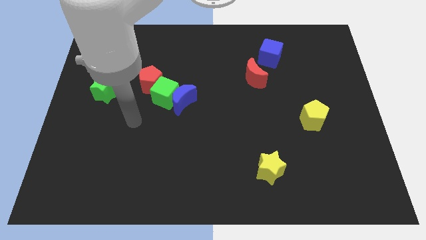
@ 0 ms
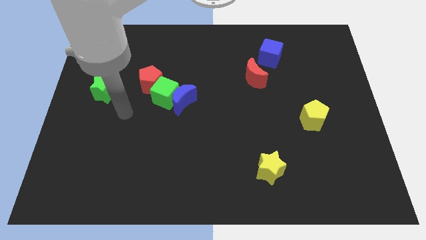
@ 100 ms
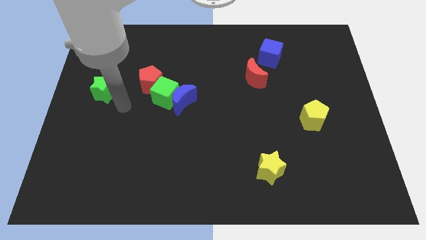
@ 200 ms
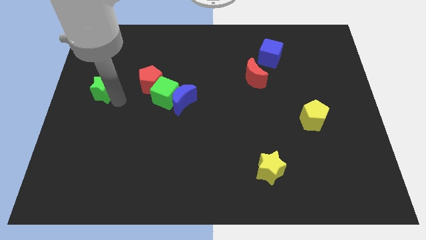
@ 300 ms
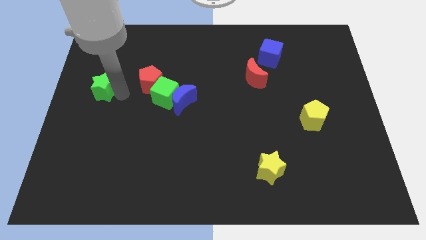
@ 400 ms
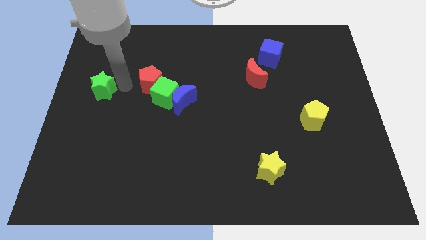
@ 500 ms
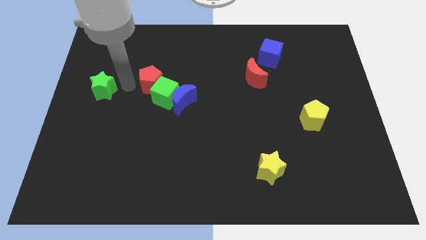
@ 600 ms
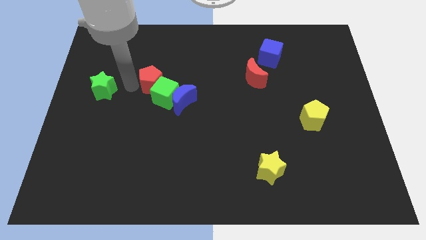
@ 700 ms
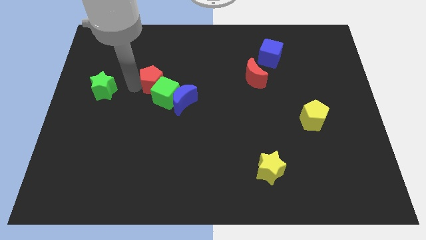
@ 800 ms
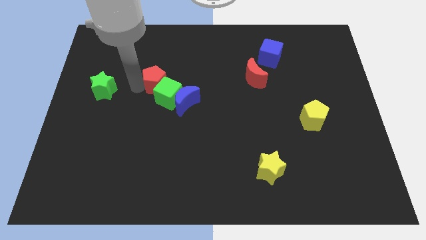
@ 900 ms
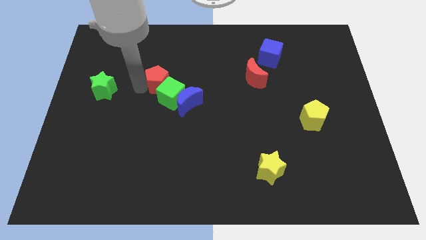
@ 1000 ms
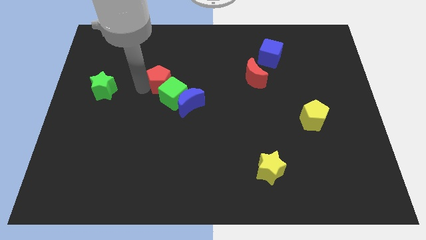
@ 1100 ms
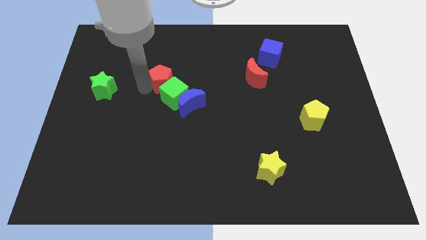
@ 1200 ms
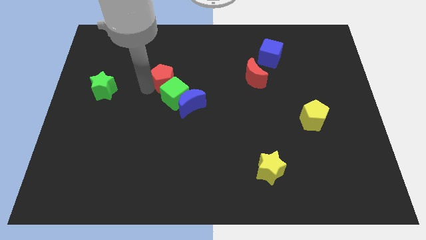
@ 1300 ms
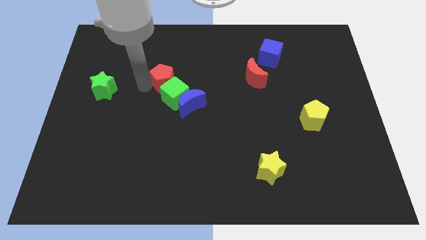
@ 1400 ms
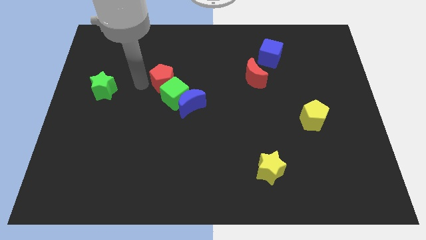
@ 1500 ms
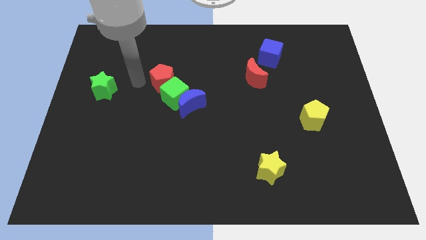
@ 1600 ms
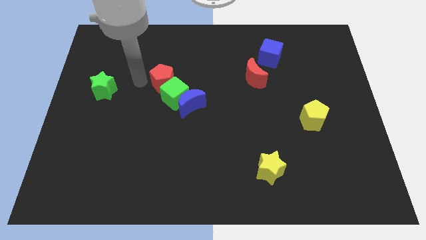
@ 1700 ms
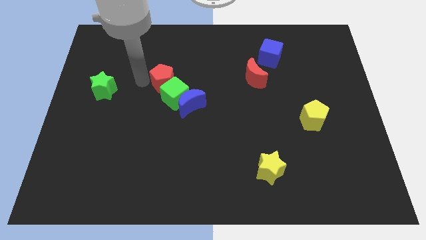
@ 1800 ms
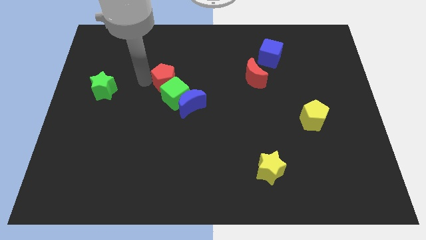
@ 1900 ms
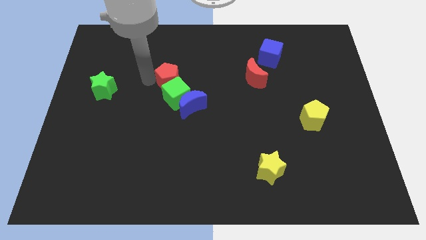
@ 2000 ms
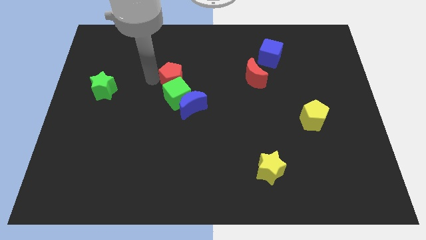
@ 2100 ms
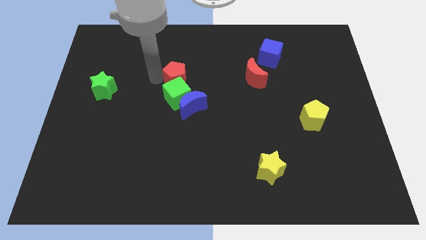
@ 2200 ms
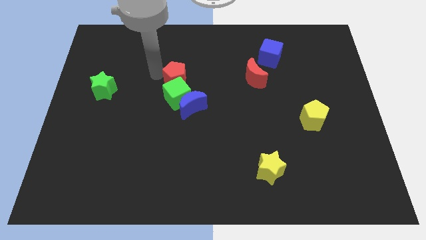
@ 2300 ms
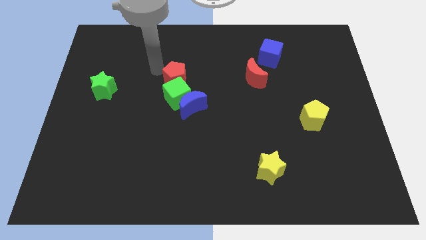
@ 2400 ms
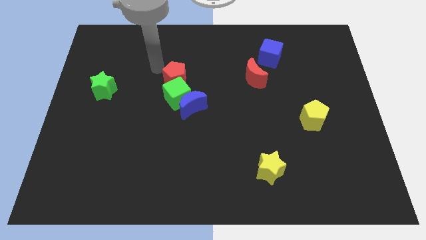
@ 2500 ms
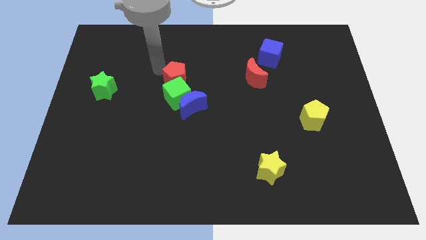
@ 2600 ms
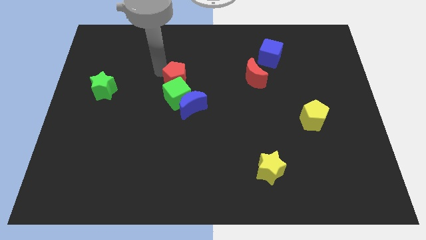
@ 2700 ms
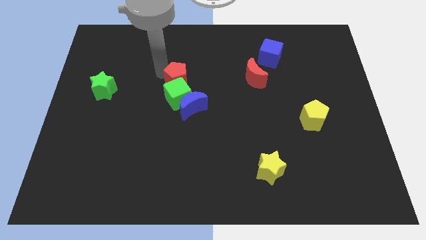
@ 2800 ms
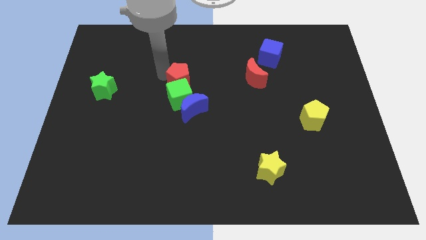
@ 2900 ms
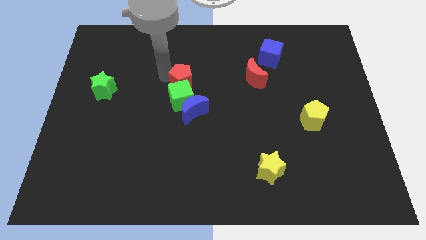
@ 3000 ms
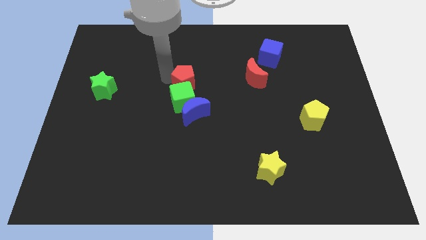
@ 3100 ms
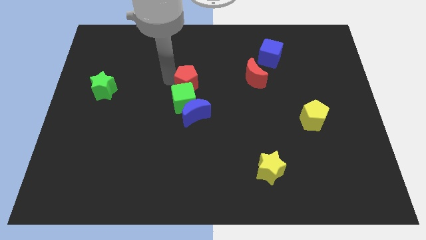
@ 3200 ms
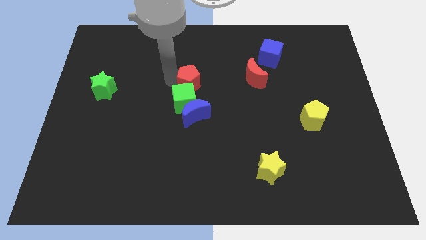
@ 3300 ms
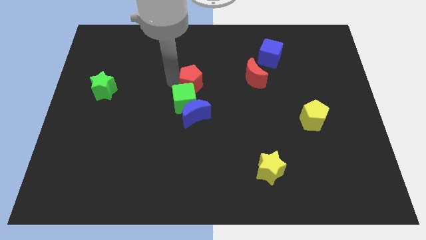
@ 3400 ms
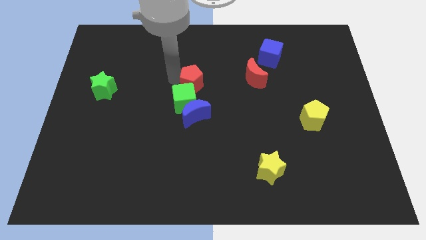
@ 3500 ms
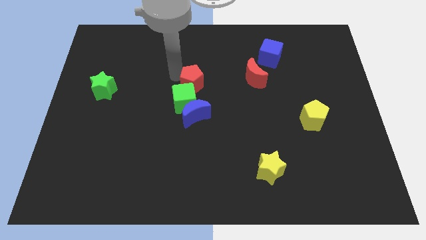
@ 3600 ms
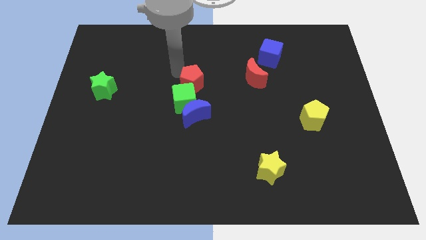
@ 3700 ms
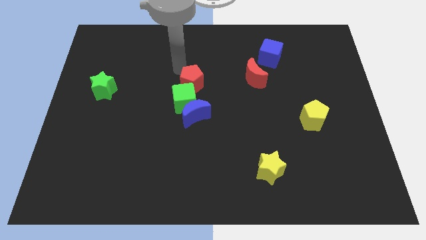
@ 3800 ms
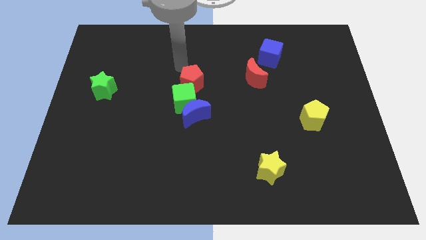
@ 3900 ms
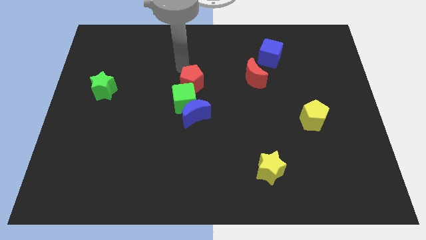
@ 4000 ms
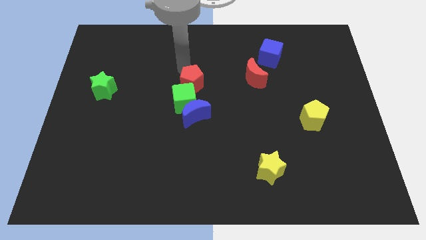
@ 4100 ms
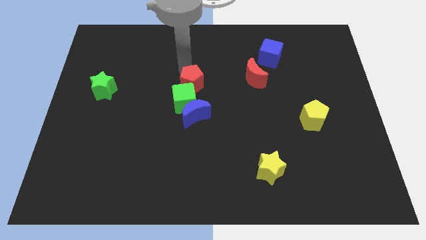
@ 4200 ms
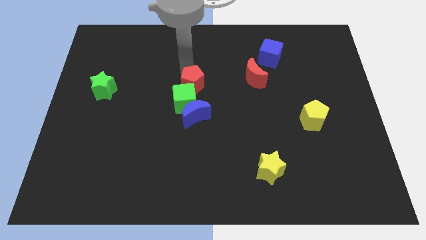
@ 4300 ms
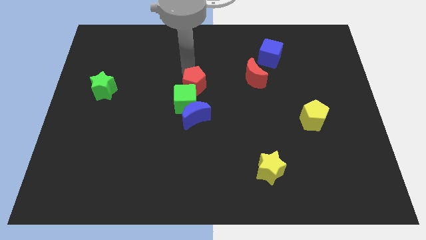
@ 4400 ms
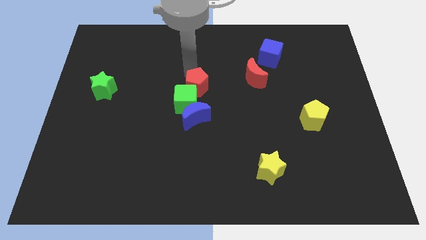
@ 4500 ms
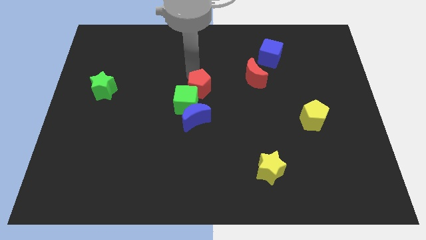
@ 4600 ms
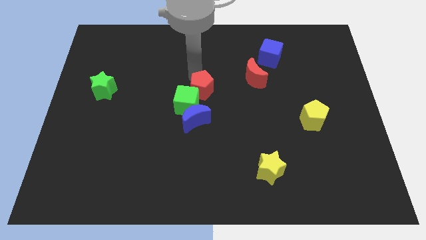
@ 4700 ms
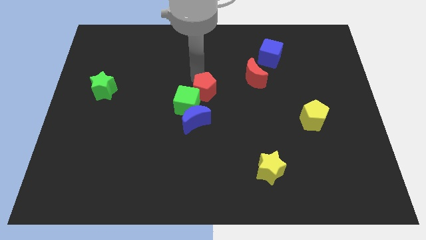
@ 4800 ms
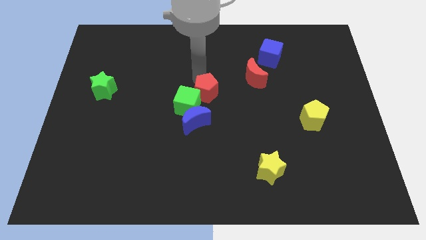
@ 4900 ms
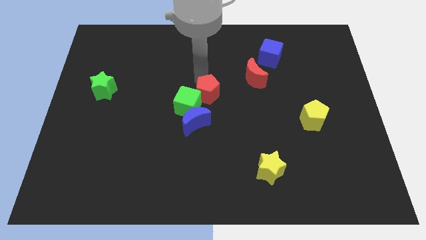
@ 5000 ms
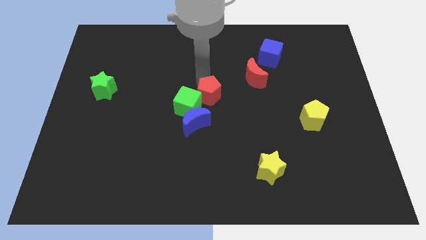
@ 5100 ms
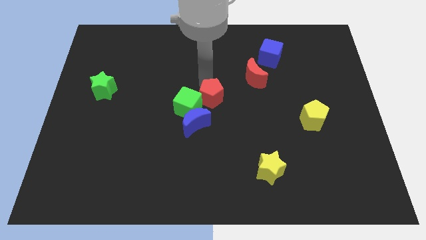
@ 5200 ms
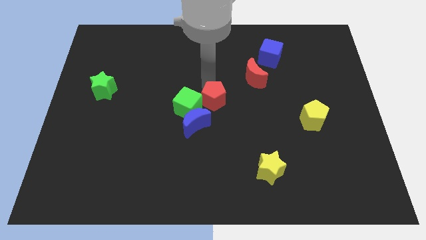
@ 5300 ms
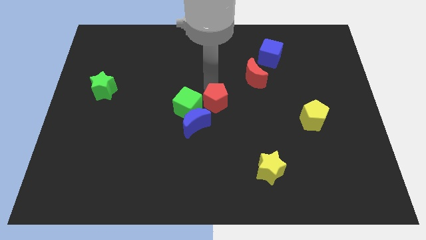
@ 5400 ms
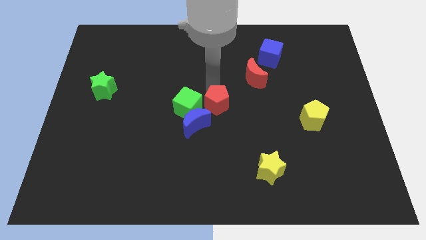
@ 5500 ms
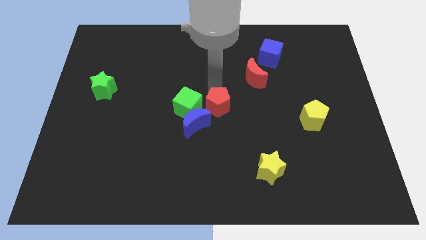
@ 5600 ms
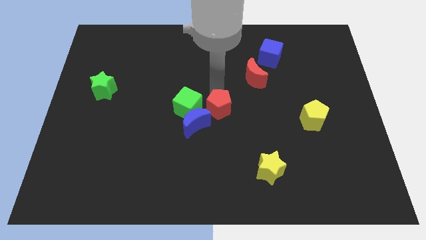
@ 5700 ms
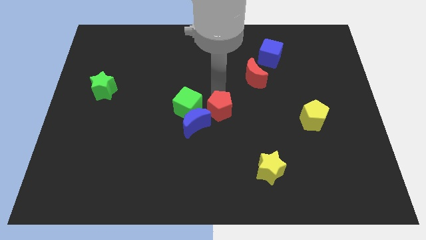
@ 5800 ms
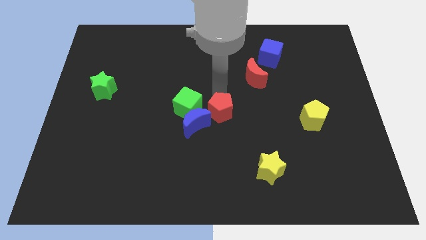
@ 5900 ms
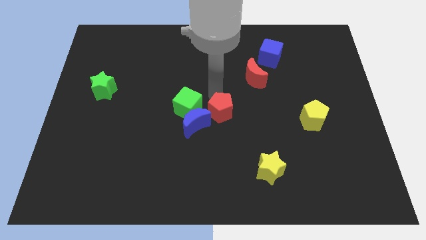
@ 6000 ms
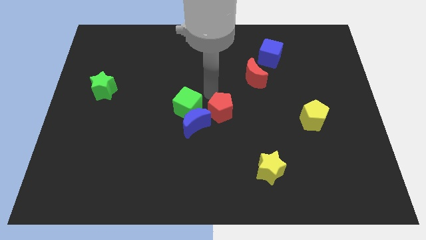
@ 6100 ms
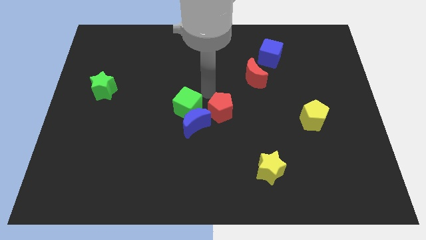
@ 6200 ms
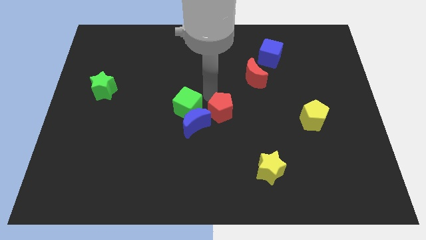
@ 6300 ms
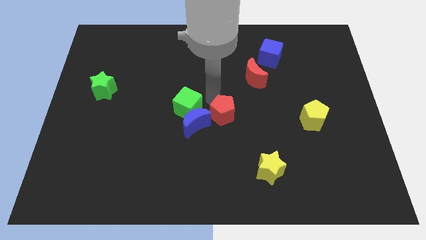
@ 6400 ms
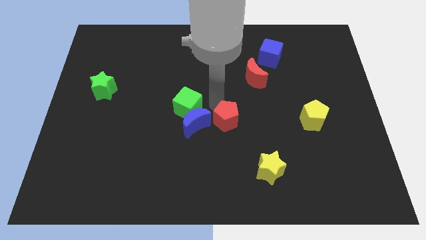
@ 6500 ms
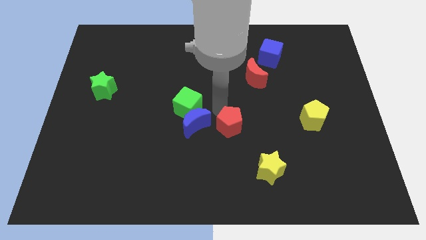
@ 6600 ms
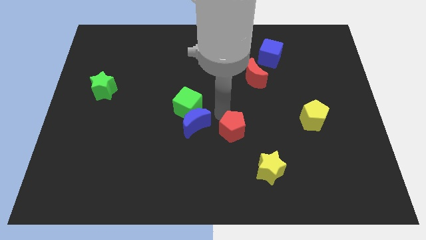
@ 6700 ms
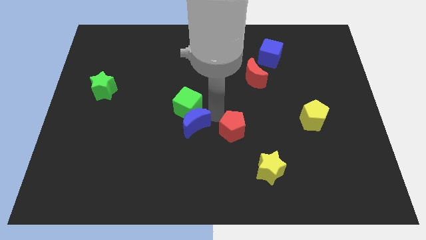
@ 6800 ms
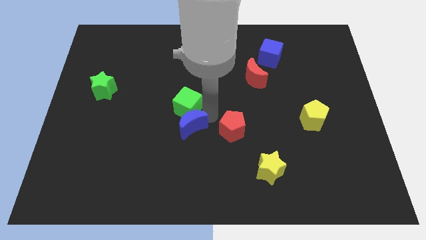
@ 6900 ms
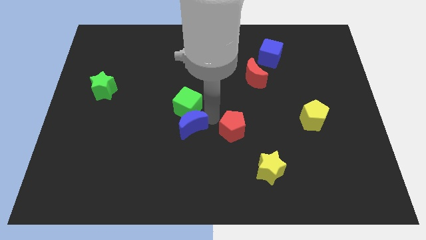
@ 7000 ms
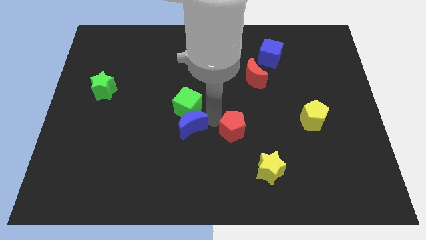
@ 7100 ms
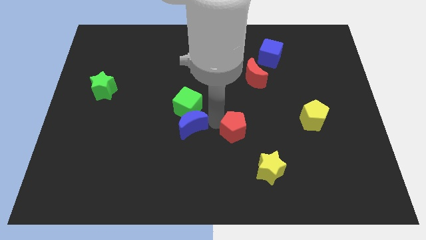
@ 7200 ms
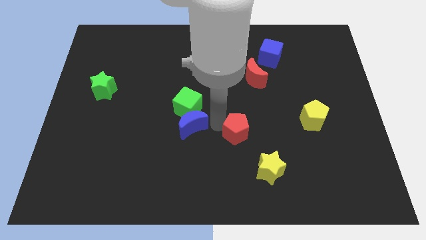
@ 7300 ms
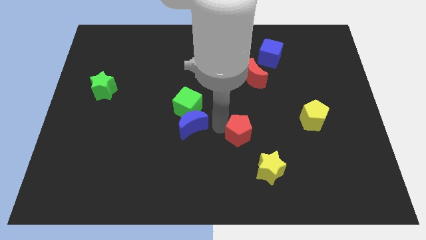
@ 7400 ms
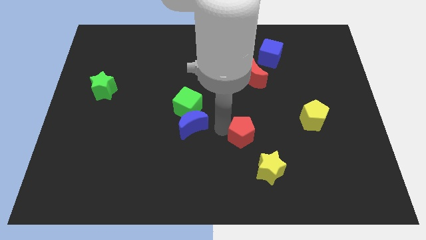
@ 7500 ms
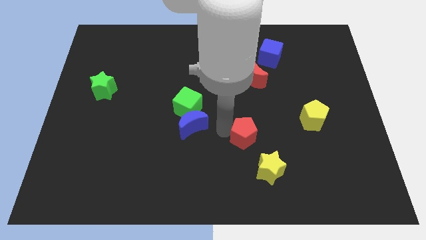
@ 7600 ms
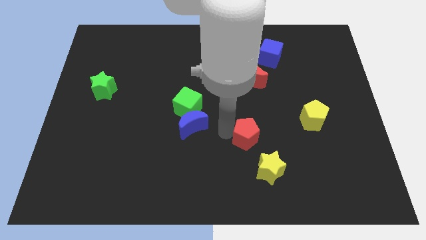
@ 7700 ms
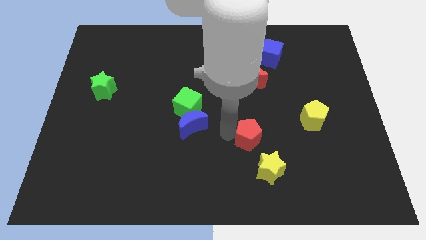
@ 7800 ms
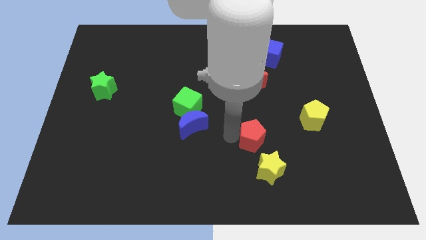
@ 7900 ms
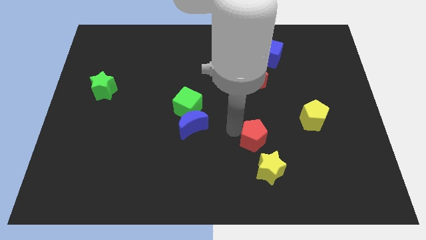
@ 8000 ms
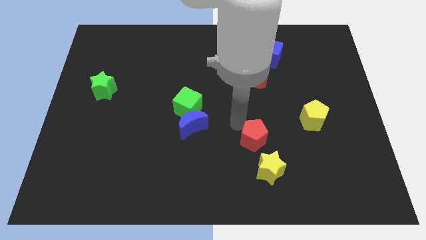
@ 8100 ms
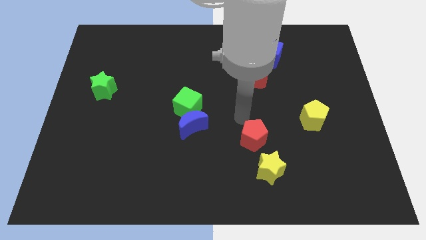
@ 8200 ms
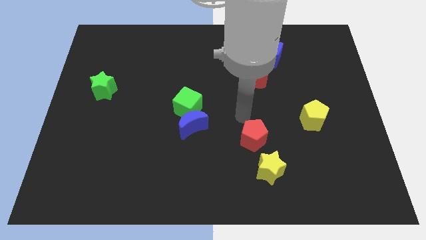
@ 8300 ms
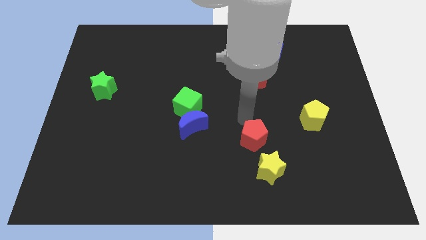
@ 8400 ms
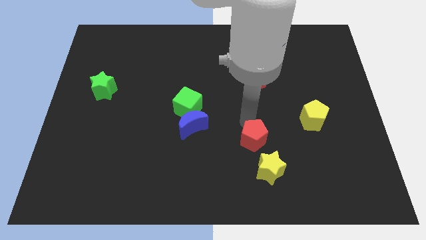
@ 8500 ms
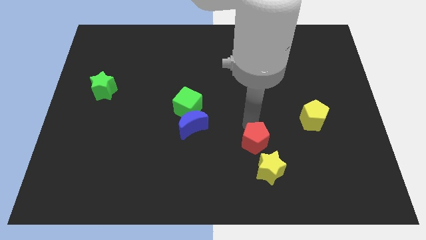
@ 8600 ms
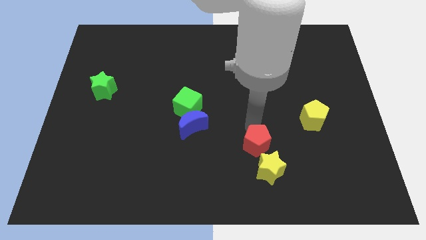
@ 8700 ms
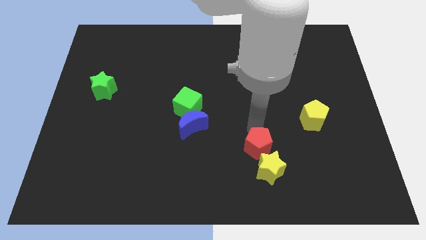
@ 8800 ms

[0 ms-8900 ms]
move the red pentagon close to the yellow star
